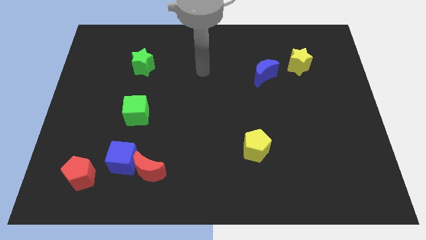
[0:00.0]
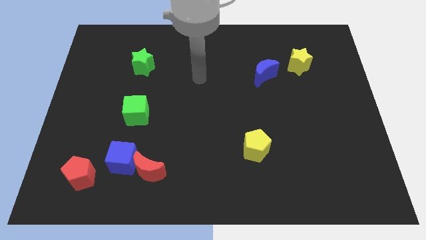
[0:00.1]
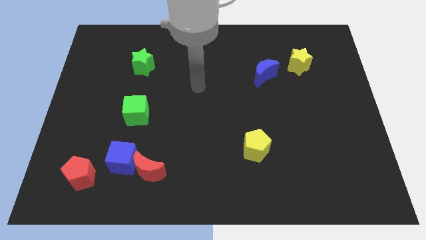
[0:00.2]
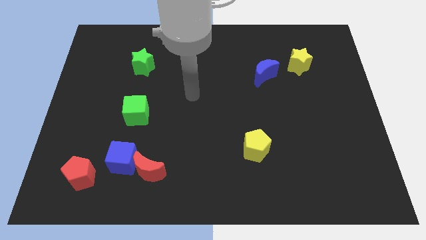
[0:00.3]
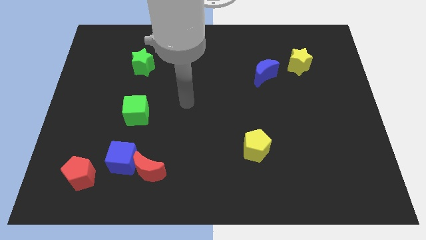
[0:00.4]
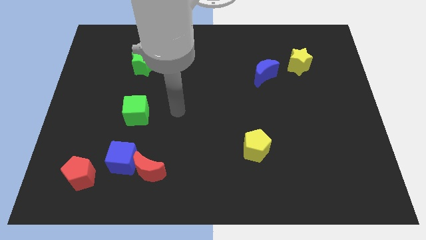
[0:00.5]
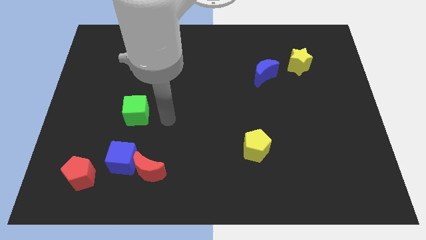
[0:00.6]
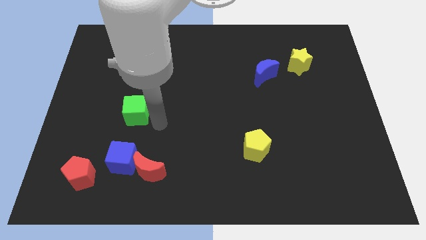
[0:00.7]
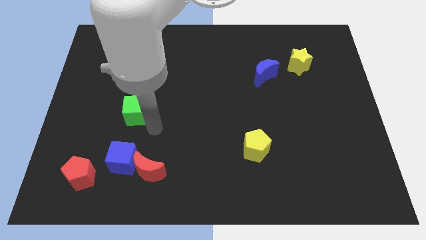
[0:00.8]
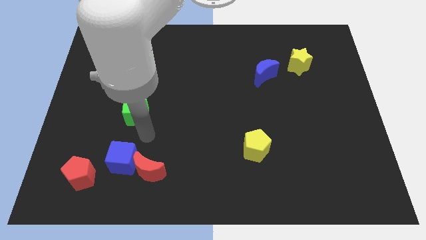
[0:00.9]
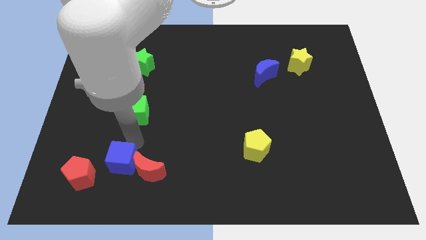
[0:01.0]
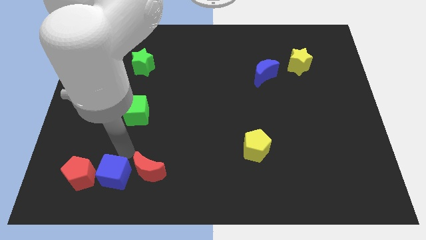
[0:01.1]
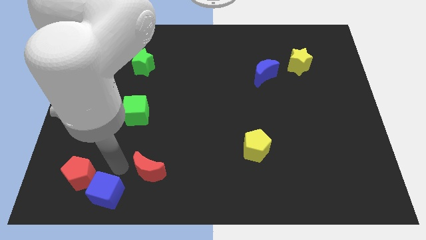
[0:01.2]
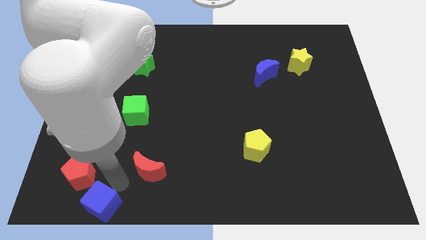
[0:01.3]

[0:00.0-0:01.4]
pull the red moon apart from the blue cube

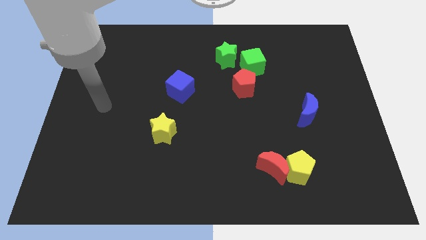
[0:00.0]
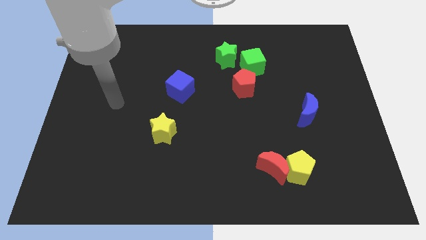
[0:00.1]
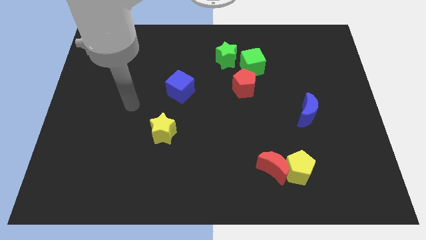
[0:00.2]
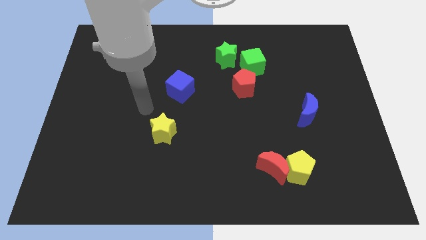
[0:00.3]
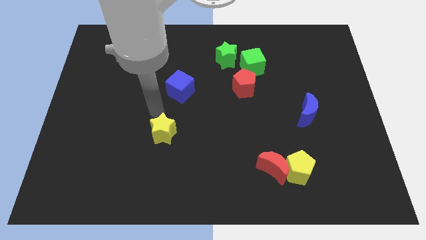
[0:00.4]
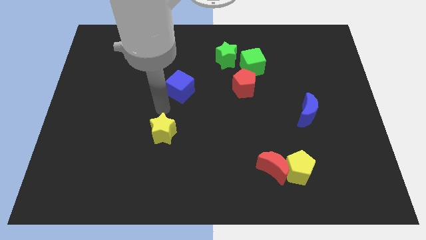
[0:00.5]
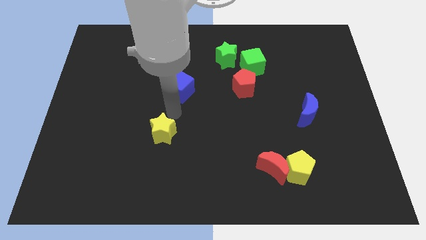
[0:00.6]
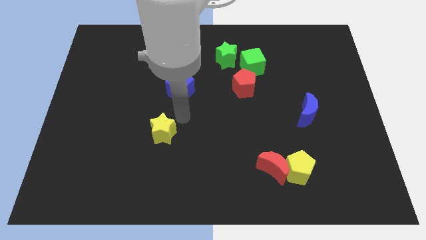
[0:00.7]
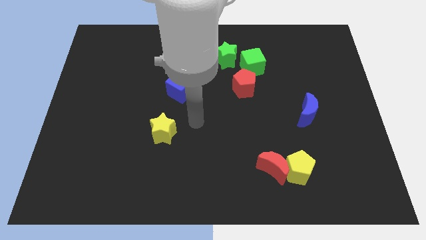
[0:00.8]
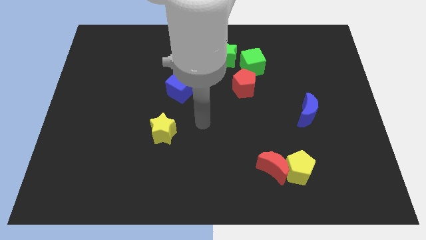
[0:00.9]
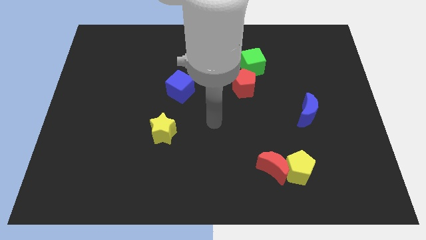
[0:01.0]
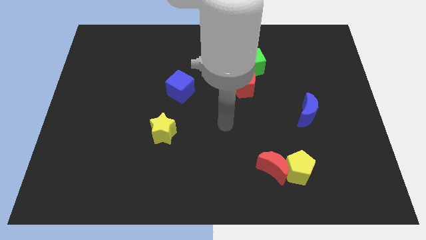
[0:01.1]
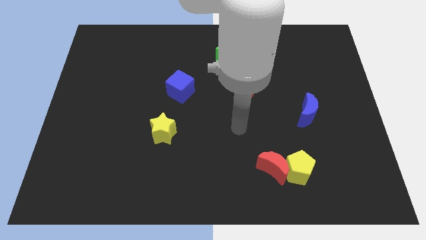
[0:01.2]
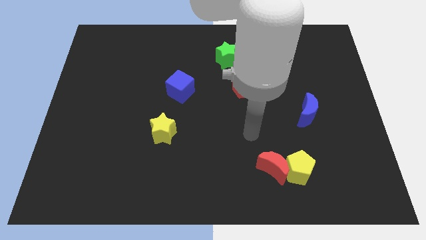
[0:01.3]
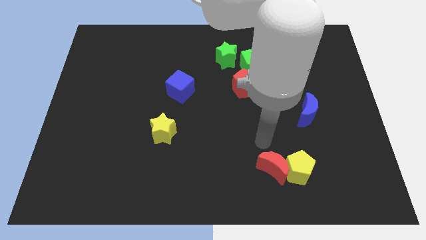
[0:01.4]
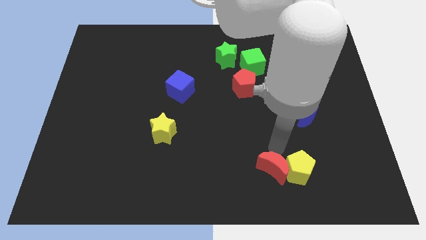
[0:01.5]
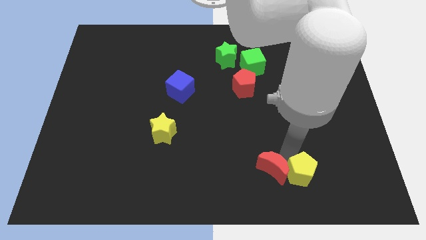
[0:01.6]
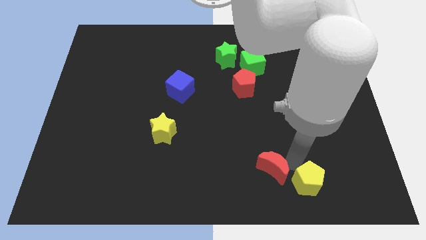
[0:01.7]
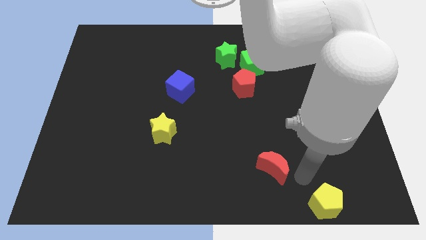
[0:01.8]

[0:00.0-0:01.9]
separate the red moon from the yellow pentagon

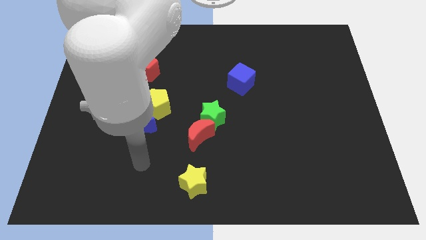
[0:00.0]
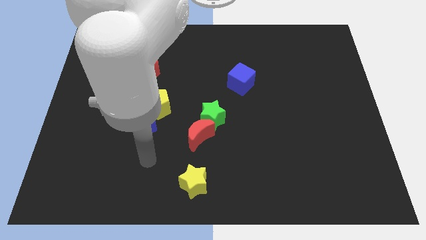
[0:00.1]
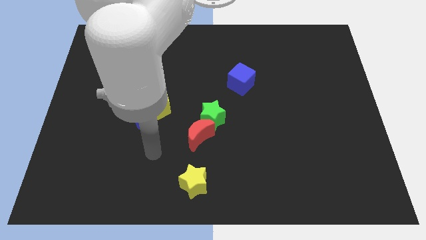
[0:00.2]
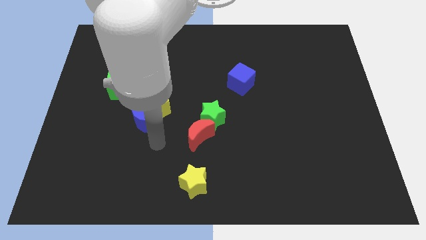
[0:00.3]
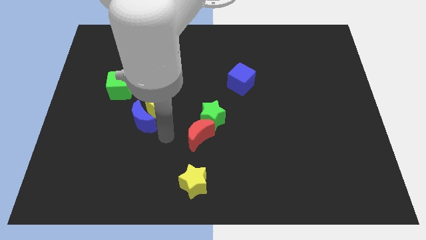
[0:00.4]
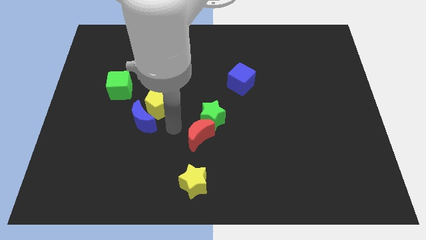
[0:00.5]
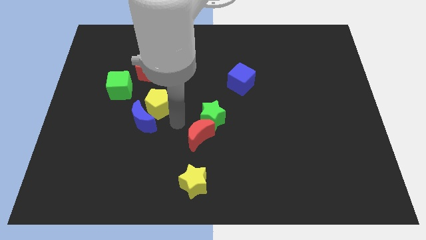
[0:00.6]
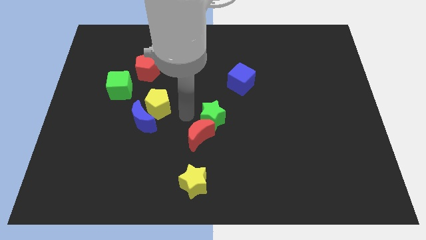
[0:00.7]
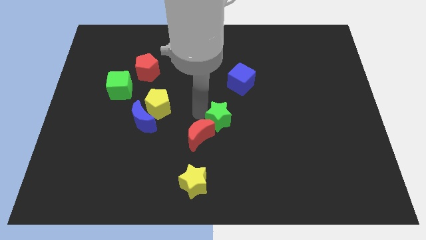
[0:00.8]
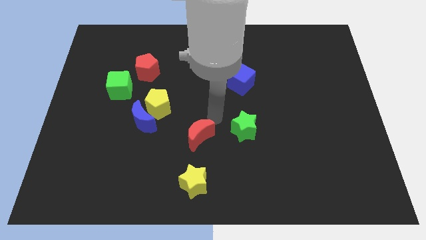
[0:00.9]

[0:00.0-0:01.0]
separate the red moon from the green star

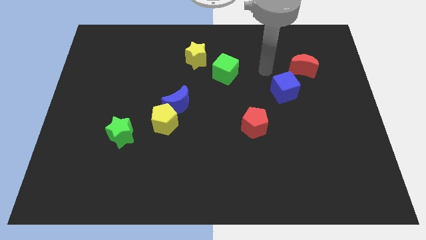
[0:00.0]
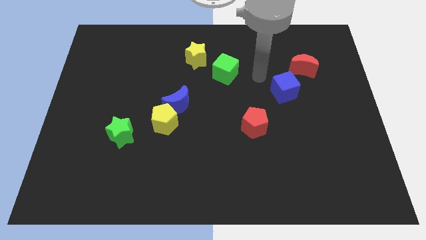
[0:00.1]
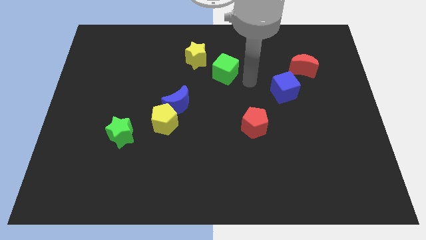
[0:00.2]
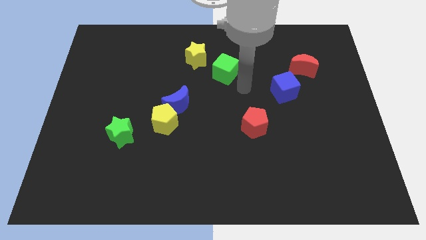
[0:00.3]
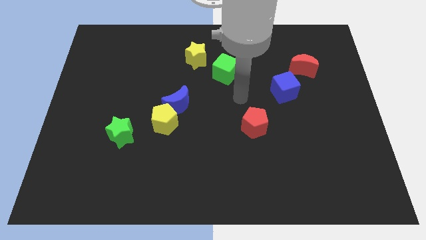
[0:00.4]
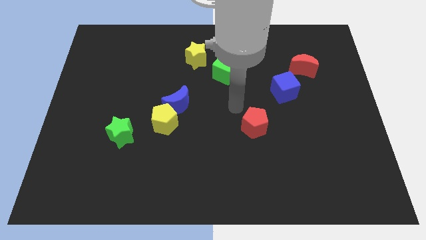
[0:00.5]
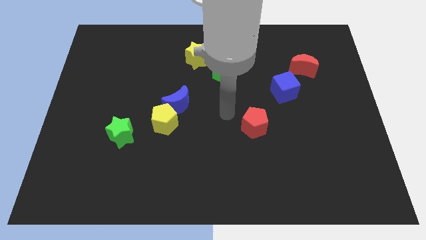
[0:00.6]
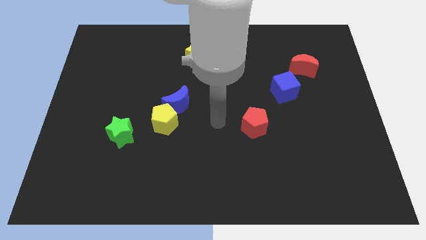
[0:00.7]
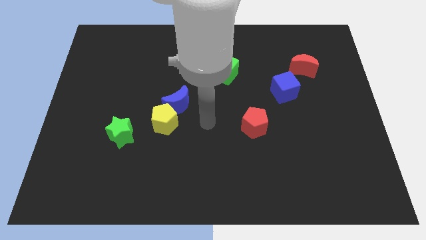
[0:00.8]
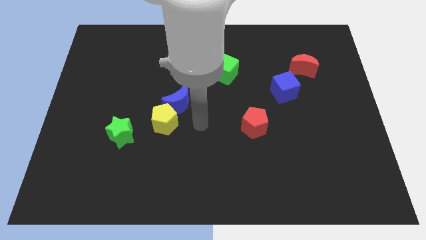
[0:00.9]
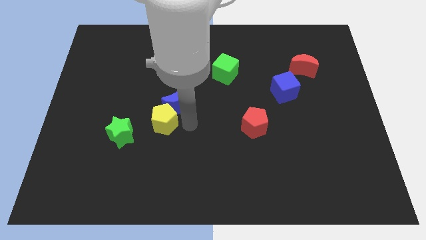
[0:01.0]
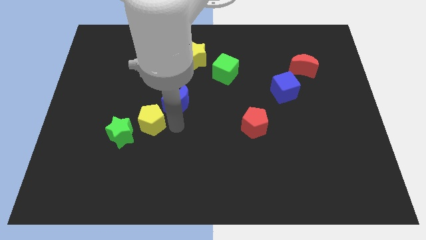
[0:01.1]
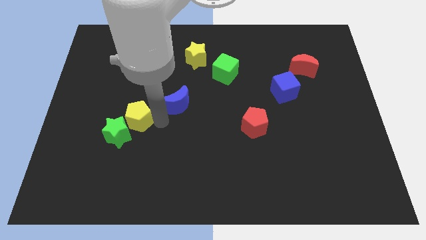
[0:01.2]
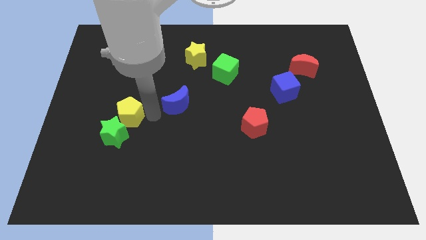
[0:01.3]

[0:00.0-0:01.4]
separate the blue moon from the yellow pentagon

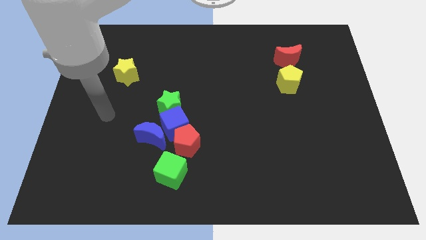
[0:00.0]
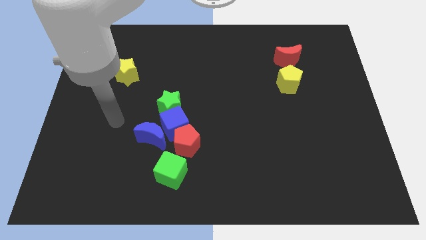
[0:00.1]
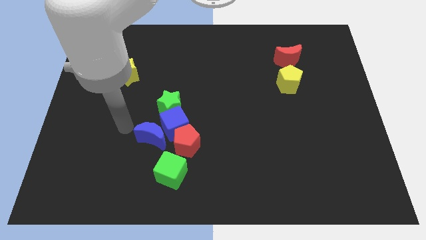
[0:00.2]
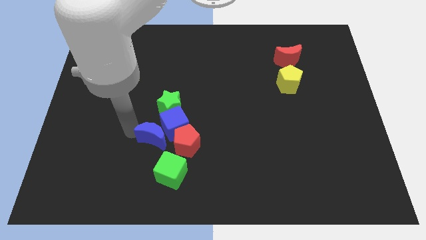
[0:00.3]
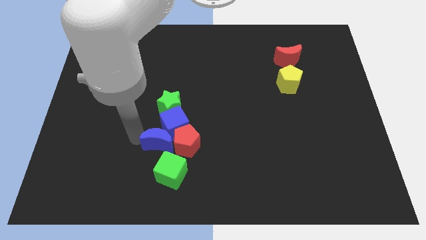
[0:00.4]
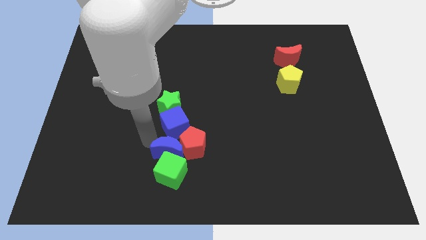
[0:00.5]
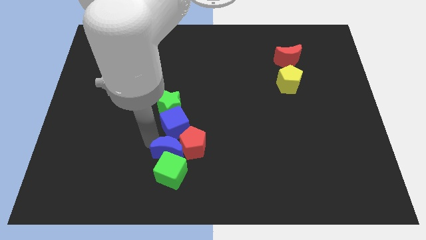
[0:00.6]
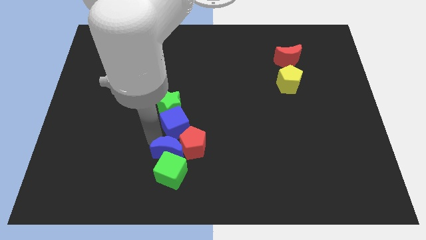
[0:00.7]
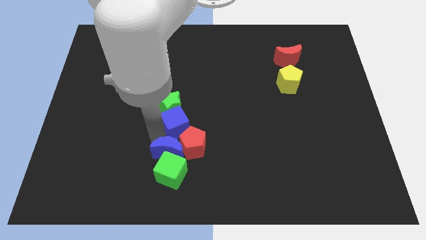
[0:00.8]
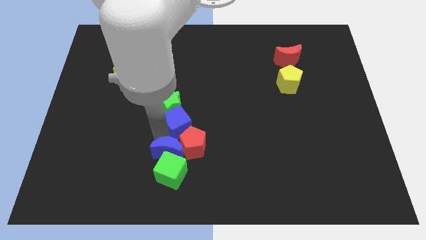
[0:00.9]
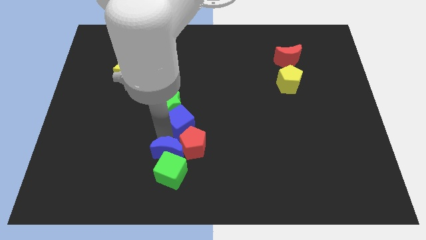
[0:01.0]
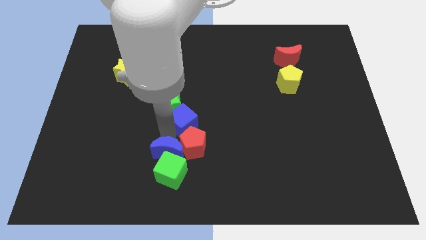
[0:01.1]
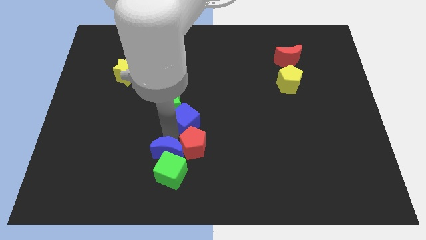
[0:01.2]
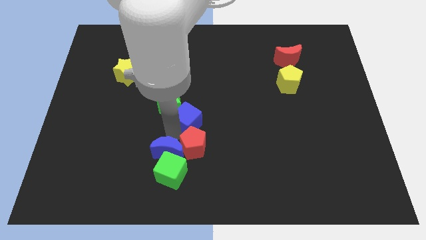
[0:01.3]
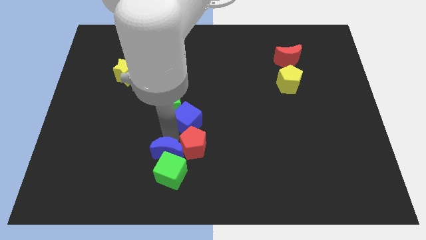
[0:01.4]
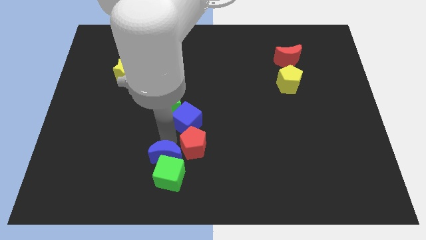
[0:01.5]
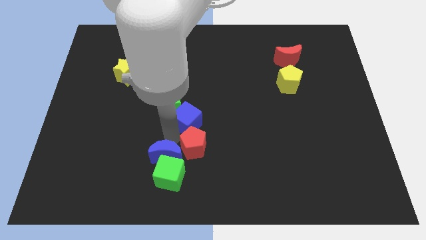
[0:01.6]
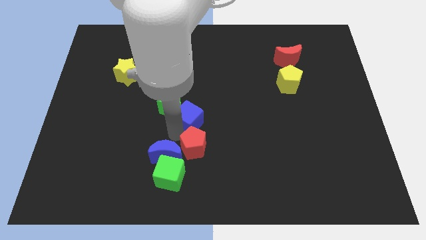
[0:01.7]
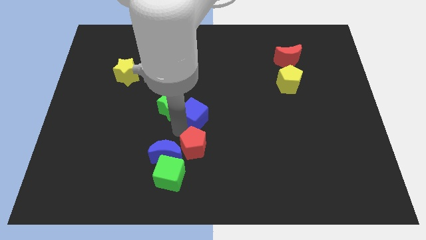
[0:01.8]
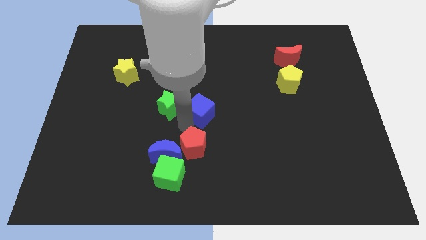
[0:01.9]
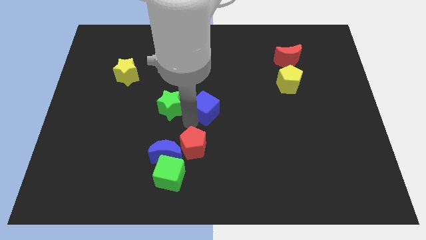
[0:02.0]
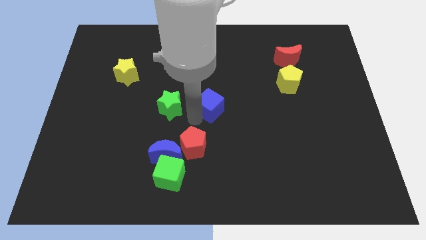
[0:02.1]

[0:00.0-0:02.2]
pull the blue cube apart from the green star, red pentagon, and blue moon

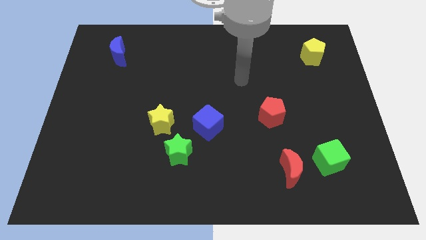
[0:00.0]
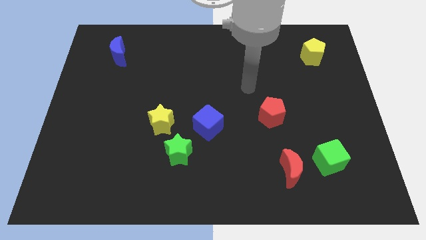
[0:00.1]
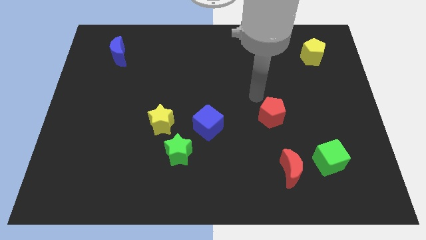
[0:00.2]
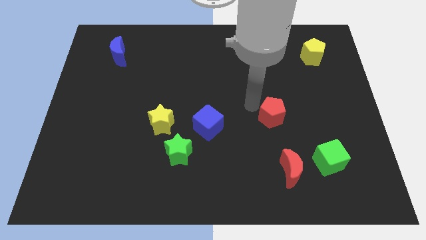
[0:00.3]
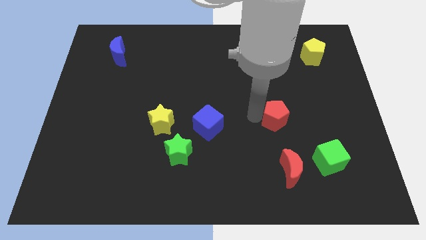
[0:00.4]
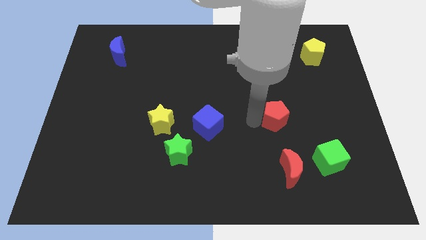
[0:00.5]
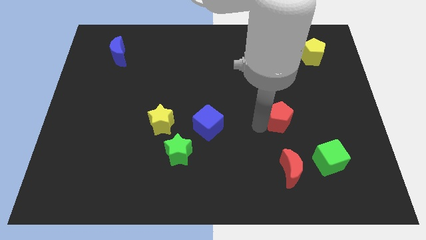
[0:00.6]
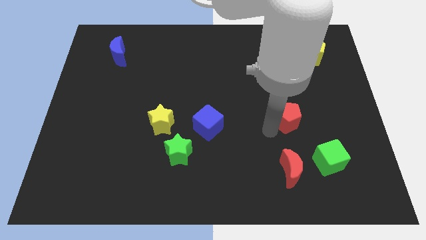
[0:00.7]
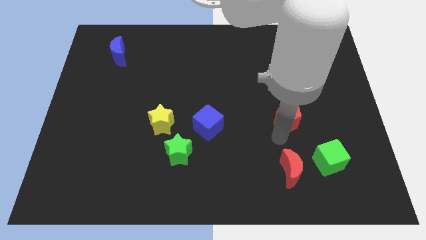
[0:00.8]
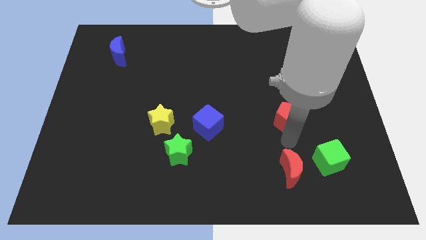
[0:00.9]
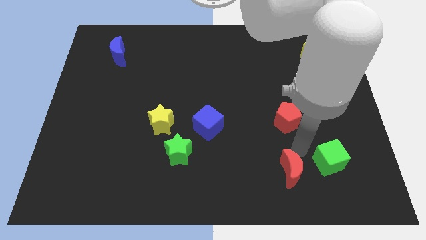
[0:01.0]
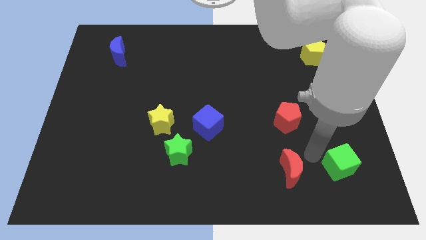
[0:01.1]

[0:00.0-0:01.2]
separate the red moon from the green cube
